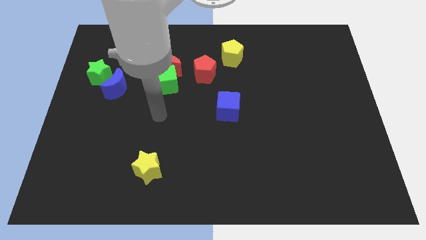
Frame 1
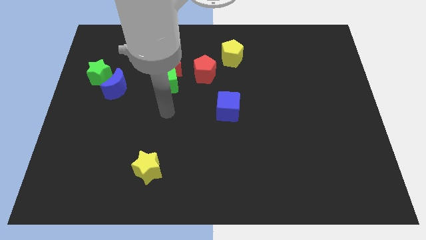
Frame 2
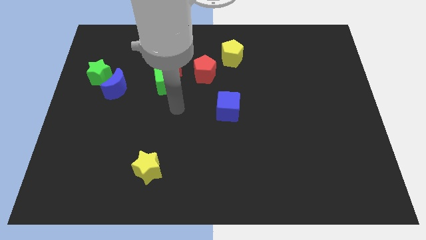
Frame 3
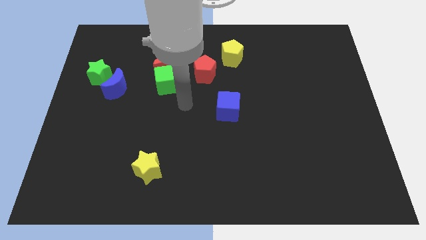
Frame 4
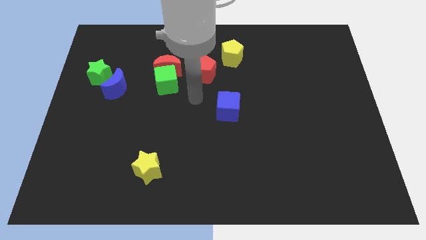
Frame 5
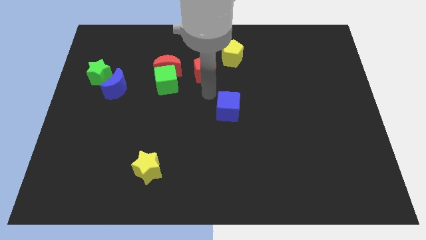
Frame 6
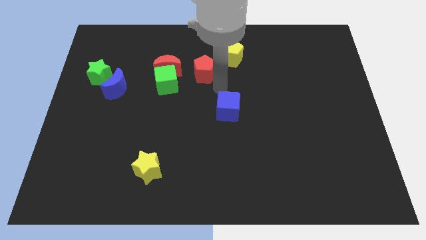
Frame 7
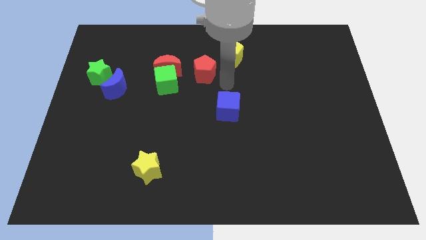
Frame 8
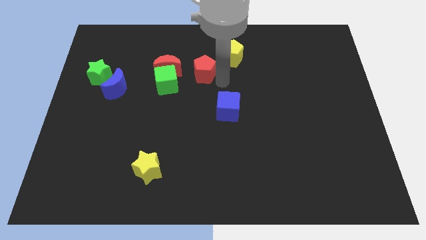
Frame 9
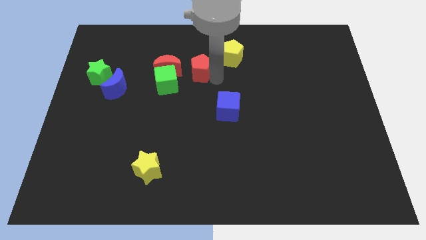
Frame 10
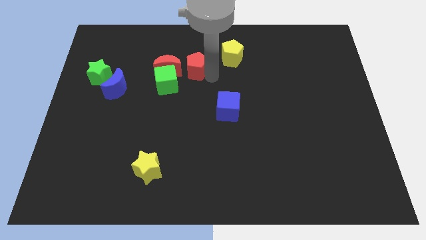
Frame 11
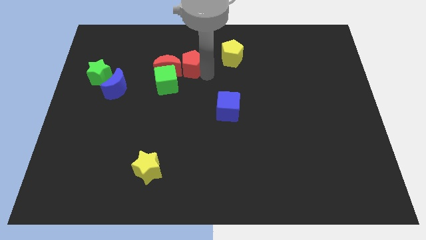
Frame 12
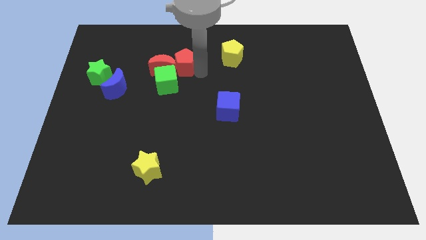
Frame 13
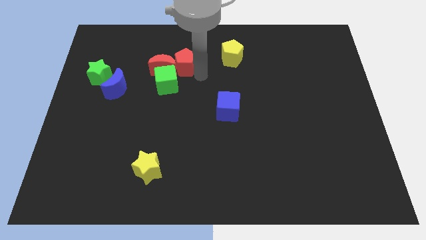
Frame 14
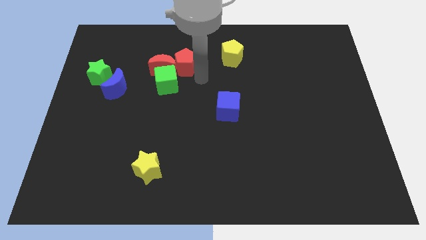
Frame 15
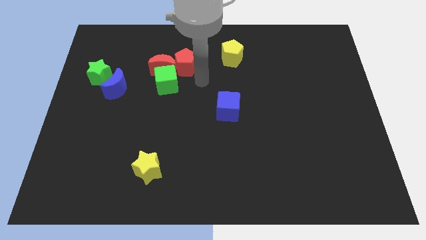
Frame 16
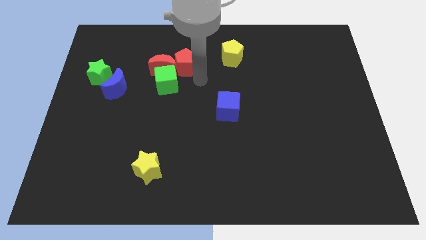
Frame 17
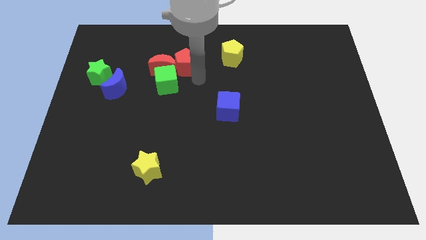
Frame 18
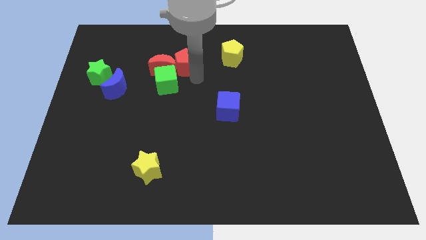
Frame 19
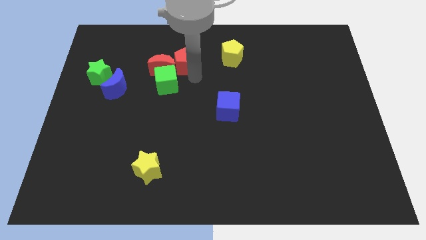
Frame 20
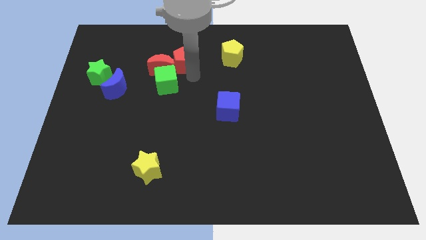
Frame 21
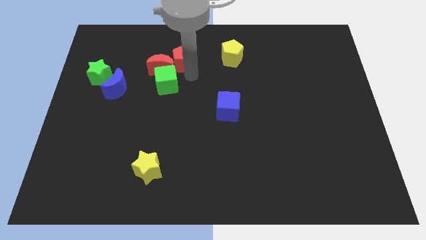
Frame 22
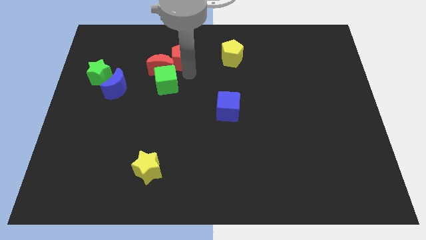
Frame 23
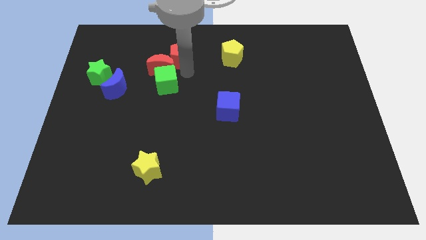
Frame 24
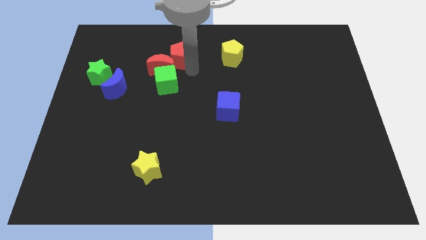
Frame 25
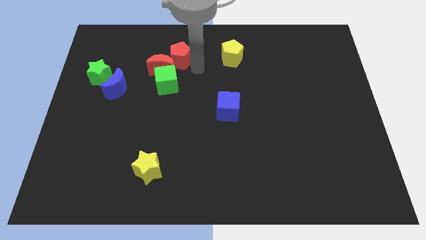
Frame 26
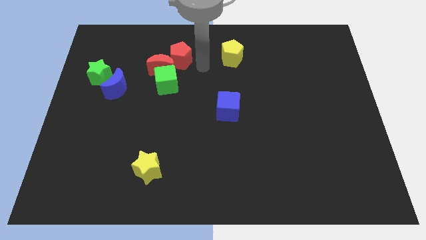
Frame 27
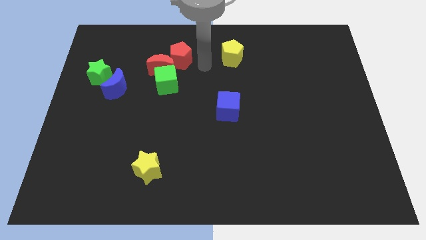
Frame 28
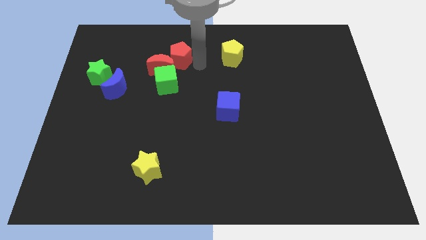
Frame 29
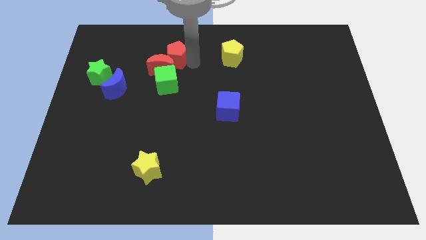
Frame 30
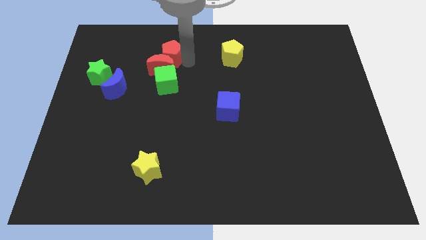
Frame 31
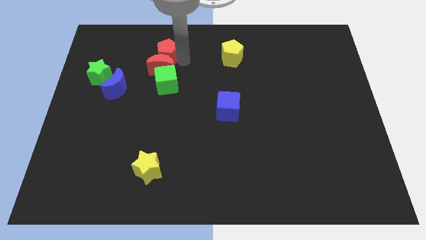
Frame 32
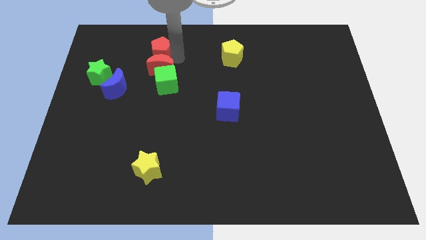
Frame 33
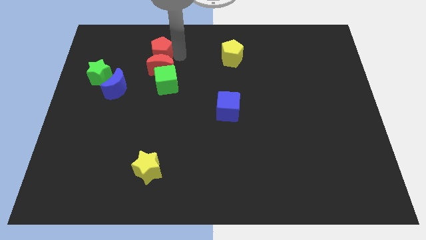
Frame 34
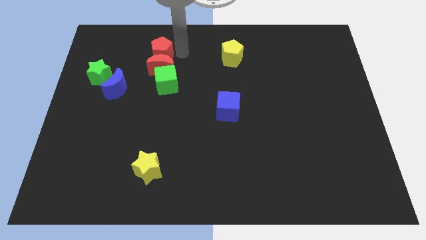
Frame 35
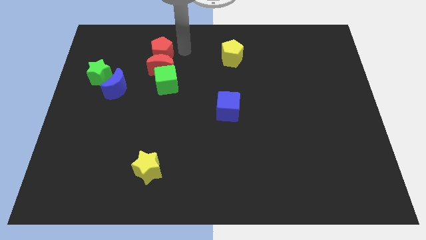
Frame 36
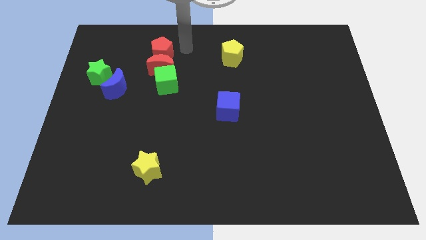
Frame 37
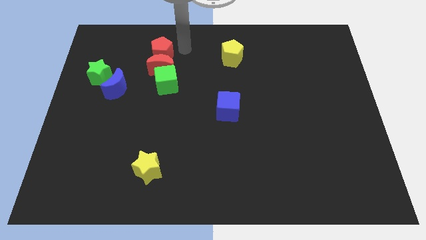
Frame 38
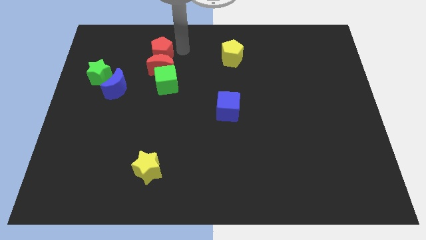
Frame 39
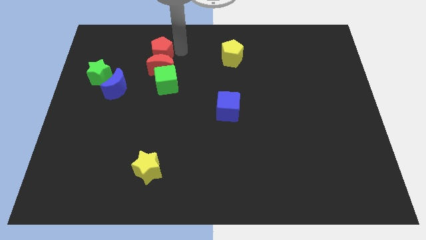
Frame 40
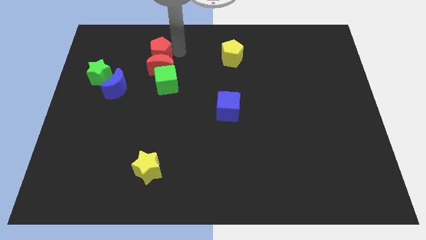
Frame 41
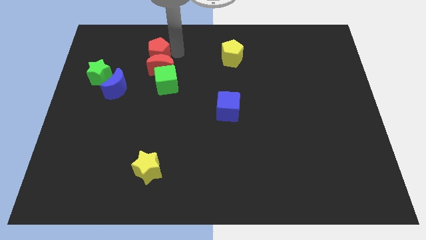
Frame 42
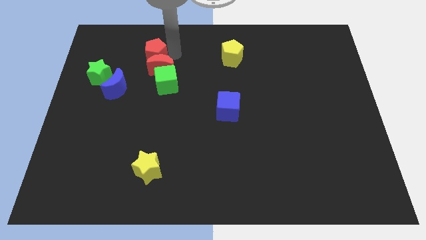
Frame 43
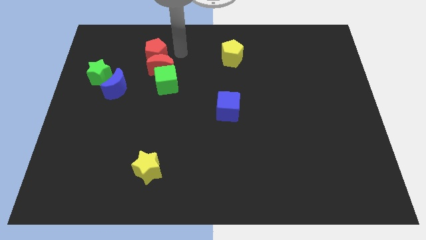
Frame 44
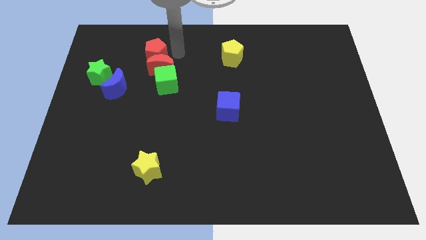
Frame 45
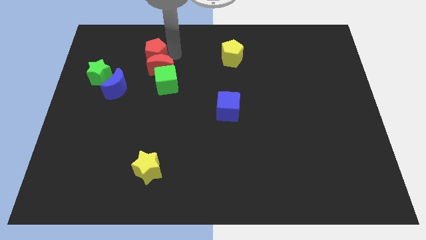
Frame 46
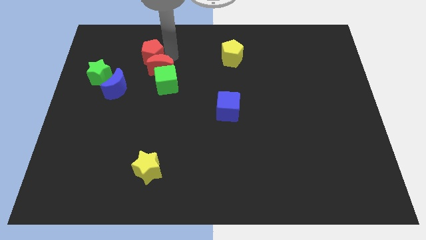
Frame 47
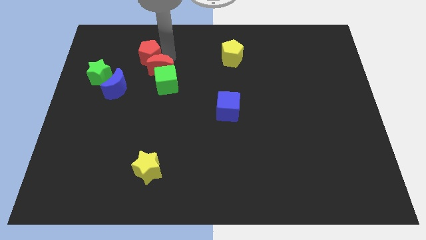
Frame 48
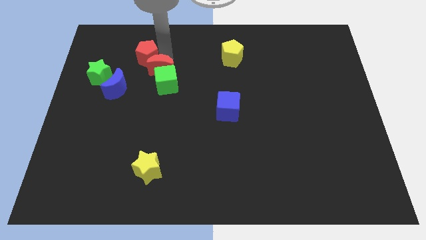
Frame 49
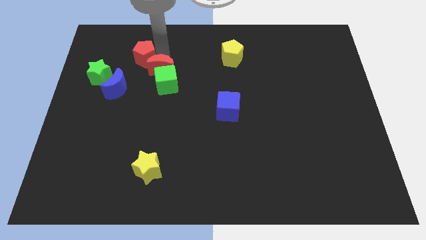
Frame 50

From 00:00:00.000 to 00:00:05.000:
push the red pentagon diagonally up and to the right of the green star
